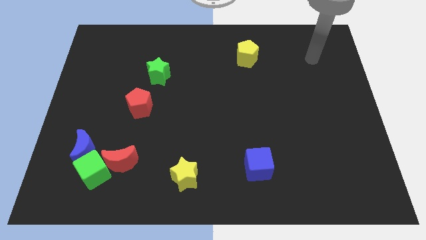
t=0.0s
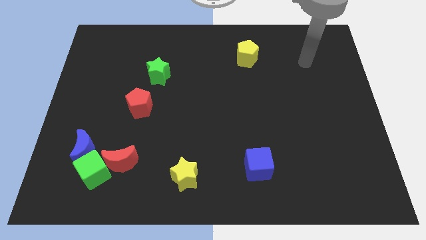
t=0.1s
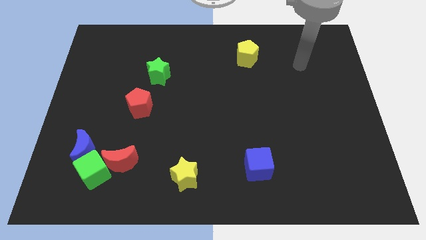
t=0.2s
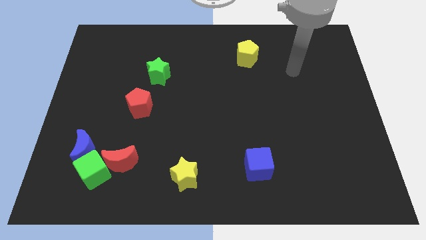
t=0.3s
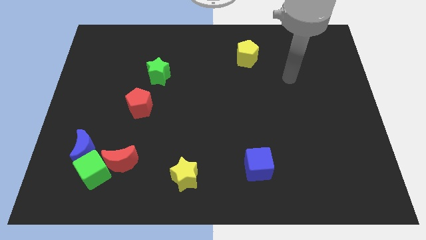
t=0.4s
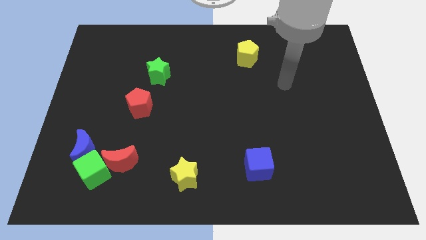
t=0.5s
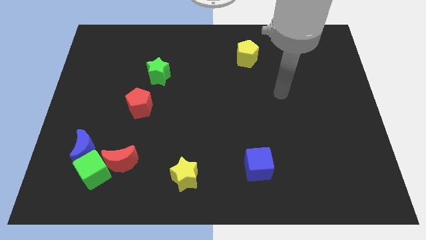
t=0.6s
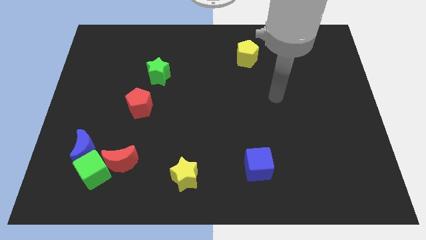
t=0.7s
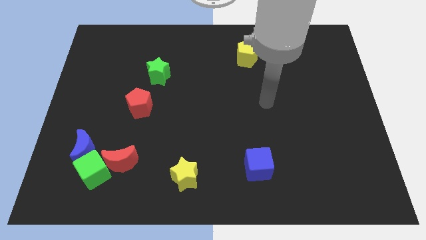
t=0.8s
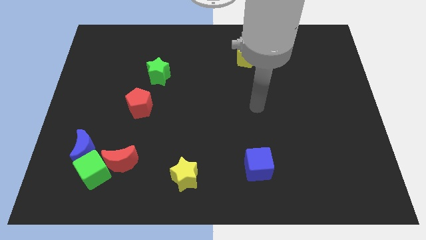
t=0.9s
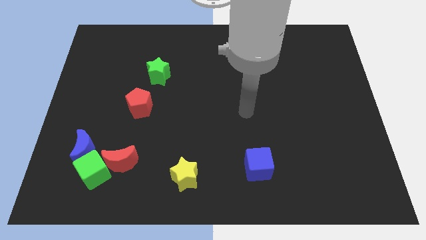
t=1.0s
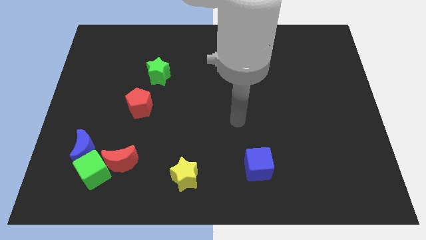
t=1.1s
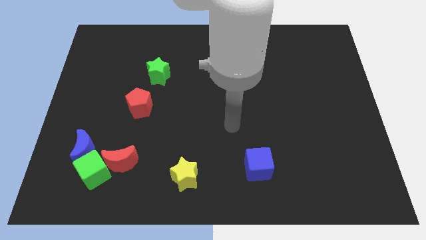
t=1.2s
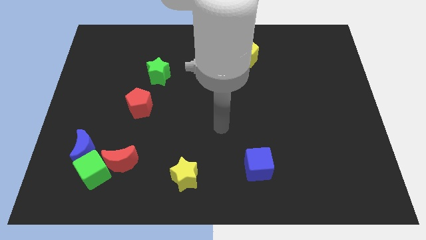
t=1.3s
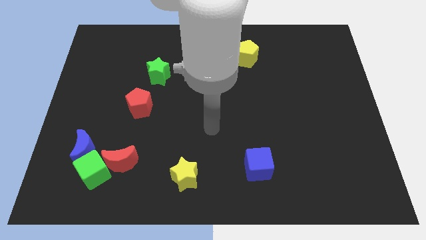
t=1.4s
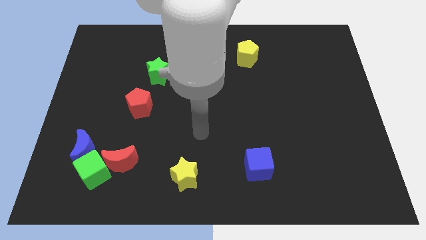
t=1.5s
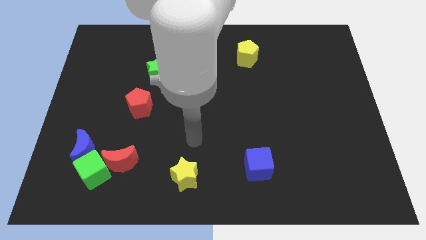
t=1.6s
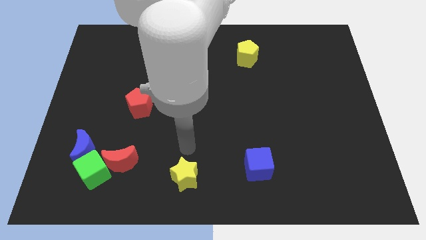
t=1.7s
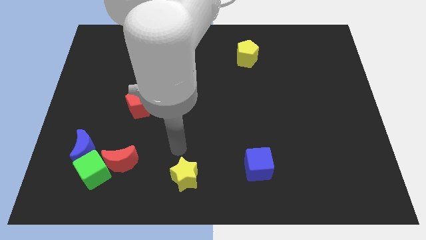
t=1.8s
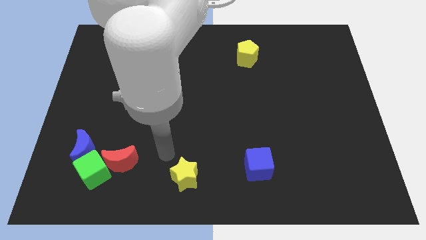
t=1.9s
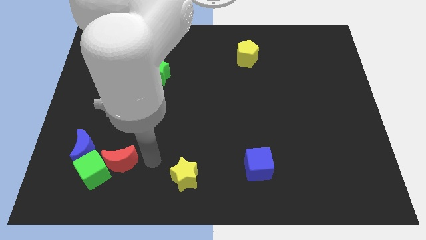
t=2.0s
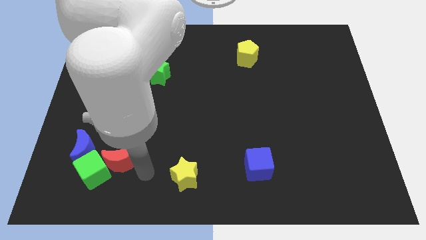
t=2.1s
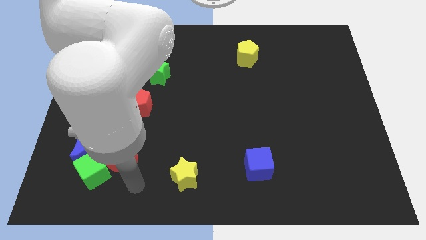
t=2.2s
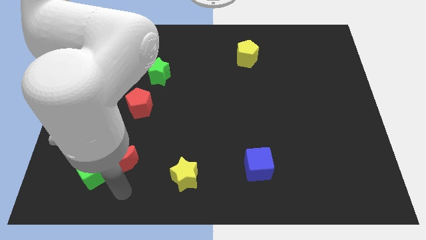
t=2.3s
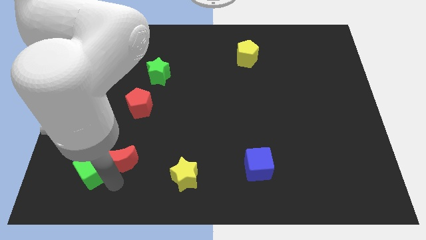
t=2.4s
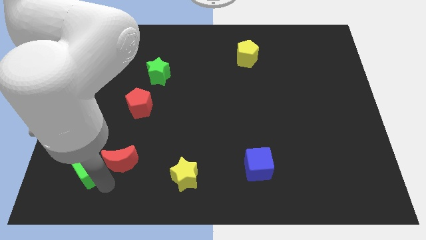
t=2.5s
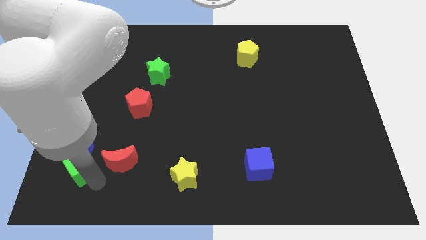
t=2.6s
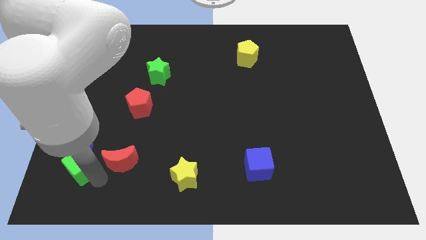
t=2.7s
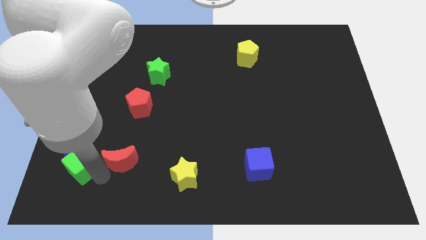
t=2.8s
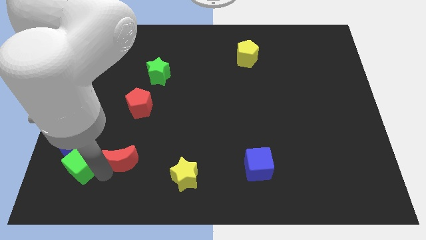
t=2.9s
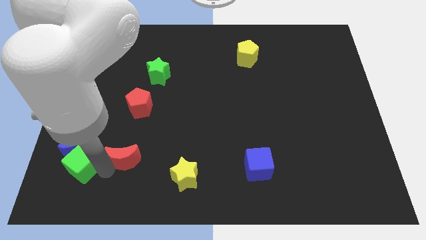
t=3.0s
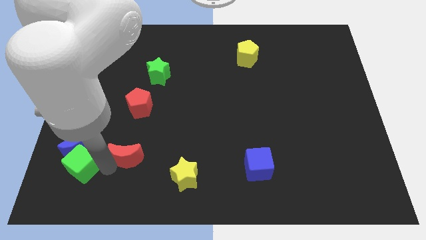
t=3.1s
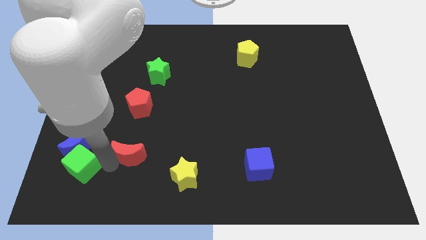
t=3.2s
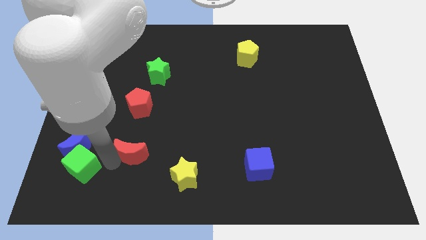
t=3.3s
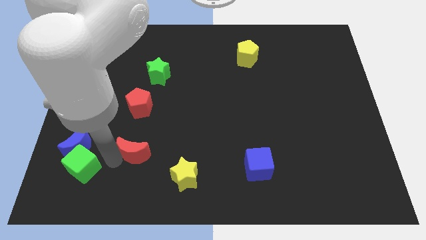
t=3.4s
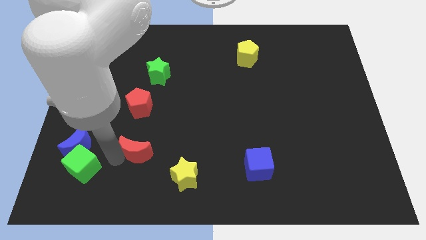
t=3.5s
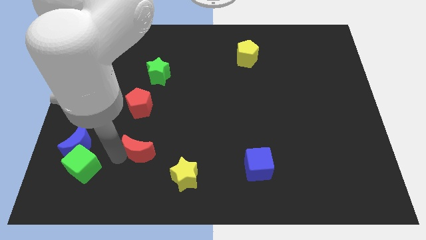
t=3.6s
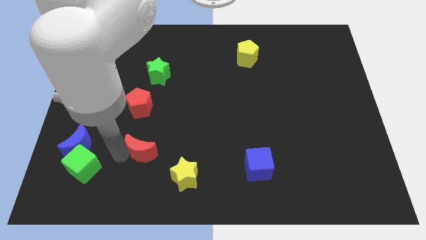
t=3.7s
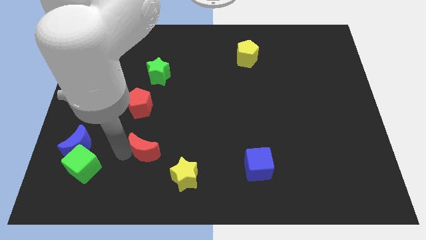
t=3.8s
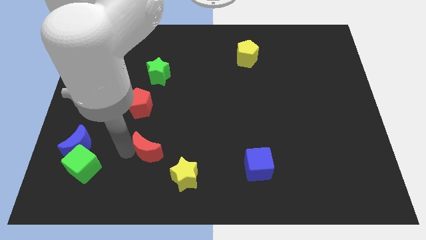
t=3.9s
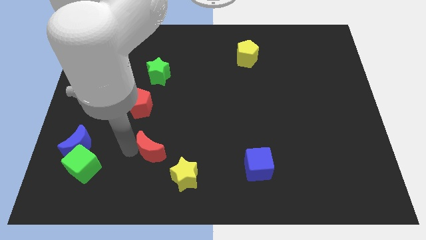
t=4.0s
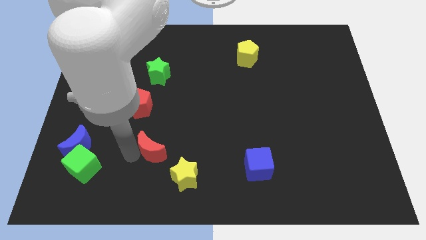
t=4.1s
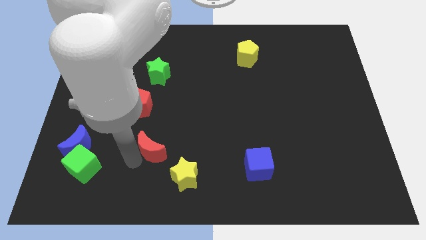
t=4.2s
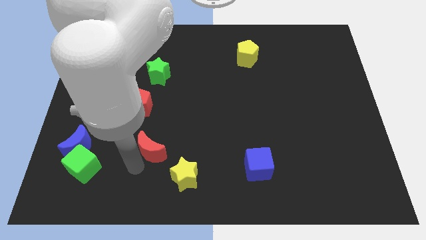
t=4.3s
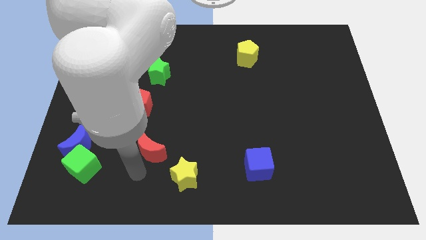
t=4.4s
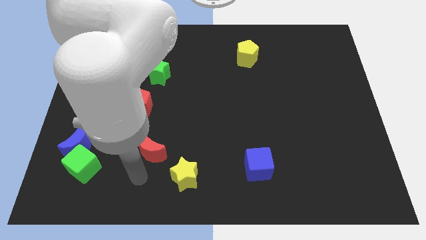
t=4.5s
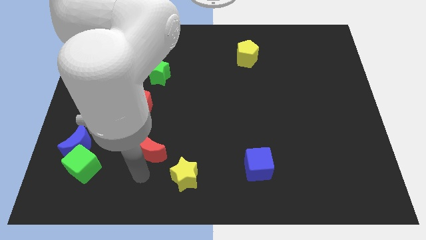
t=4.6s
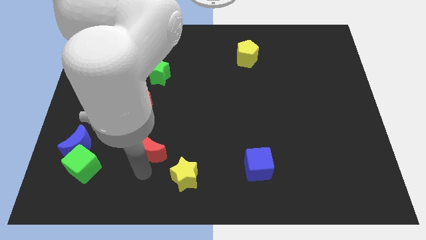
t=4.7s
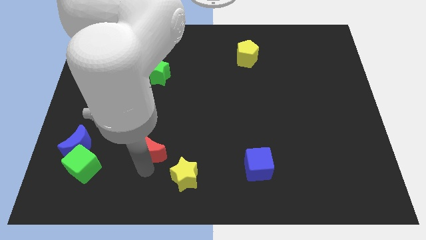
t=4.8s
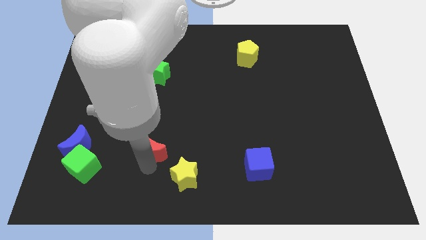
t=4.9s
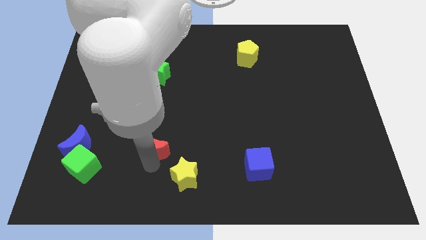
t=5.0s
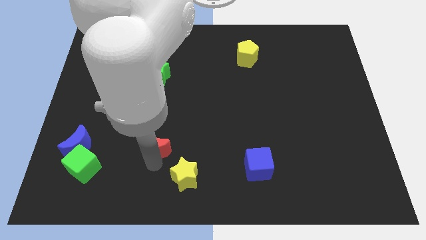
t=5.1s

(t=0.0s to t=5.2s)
move the red moon a little bit up and right

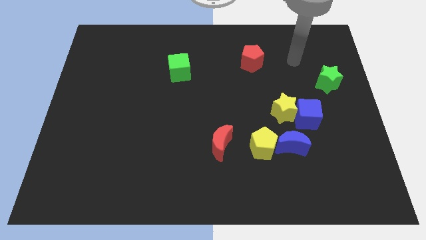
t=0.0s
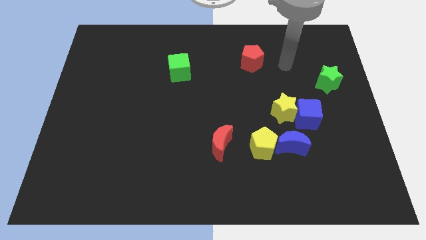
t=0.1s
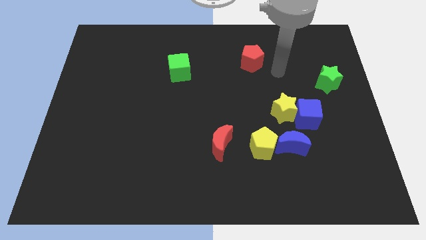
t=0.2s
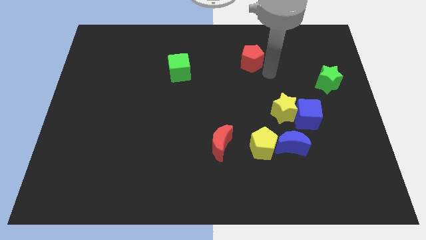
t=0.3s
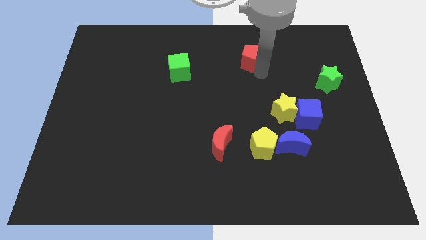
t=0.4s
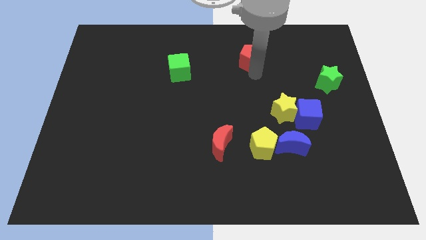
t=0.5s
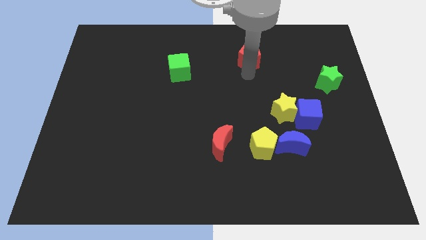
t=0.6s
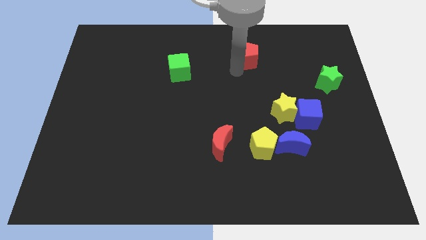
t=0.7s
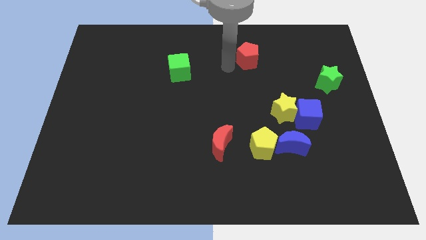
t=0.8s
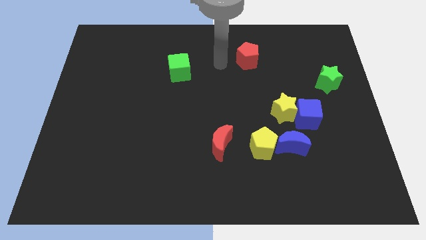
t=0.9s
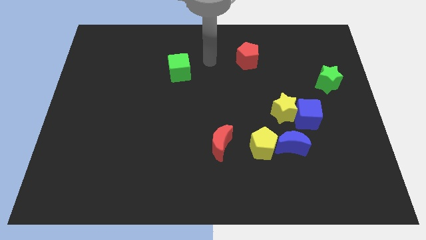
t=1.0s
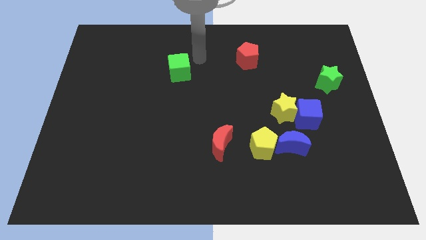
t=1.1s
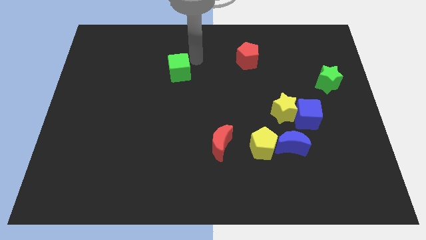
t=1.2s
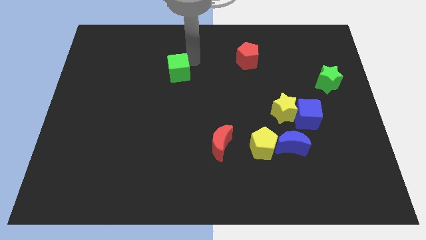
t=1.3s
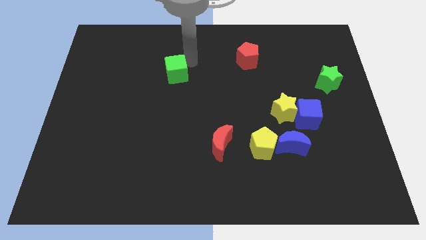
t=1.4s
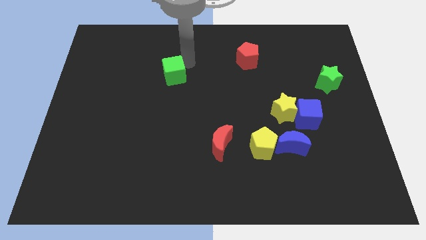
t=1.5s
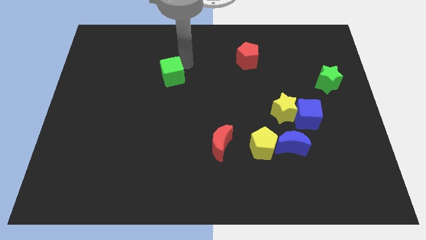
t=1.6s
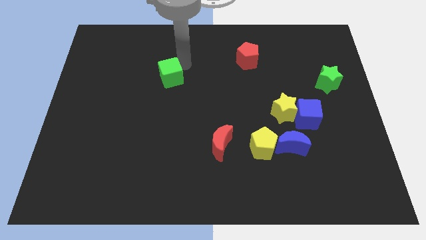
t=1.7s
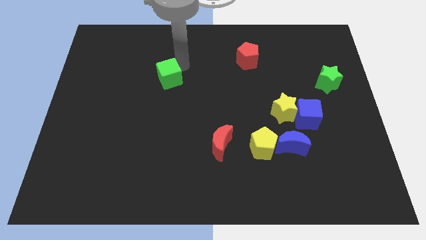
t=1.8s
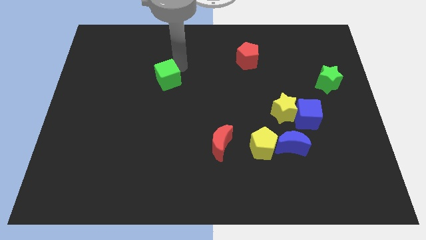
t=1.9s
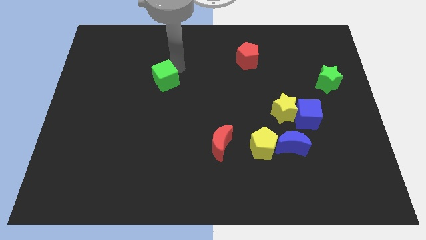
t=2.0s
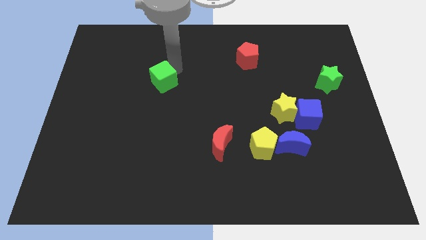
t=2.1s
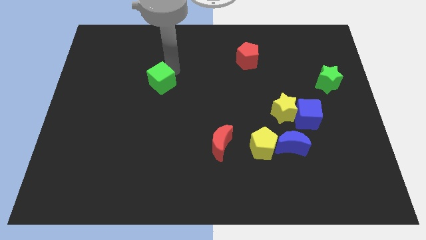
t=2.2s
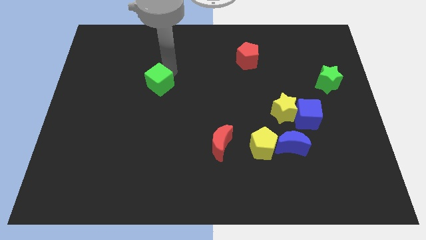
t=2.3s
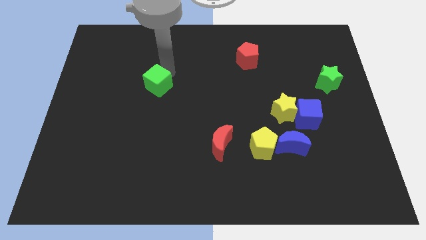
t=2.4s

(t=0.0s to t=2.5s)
slide the green cube a little down and to the left diagonally

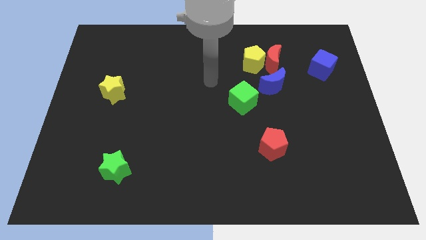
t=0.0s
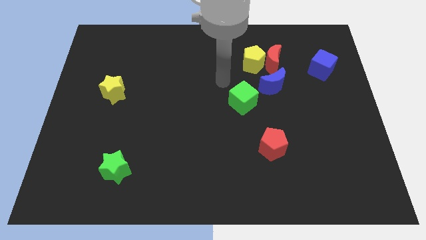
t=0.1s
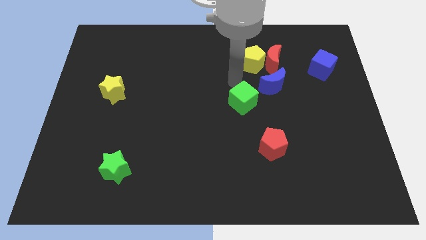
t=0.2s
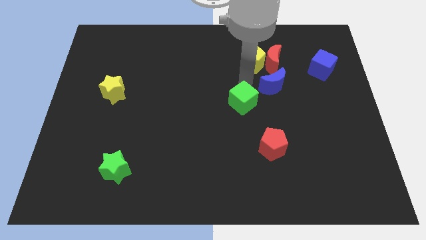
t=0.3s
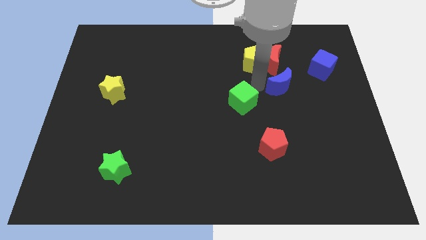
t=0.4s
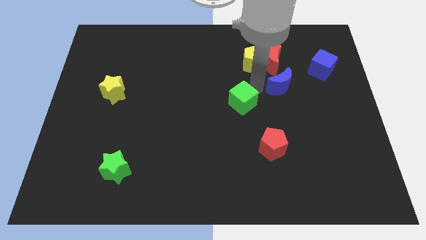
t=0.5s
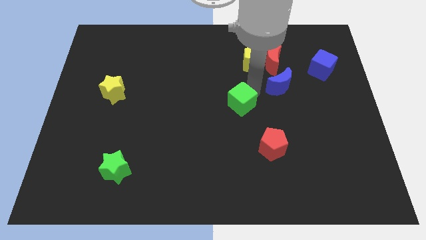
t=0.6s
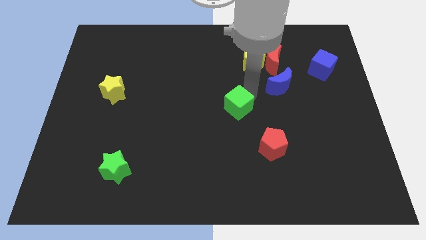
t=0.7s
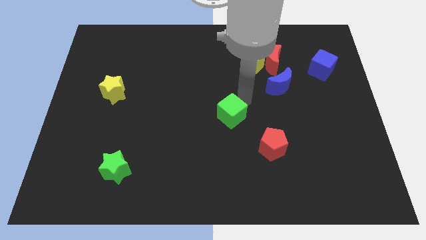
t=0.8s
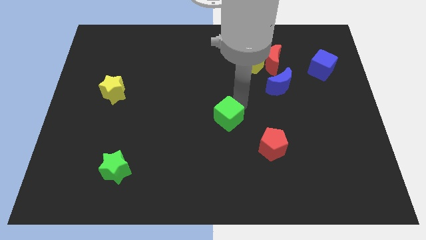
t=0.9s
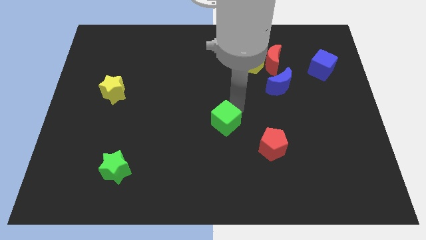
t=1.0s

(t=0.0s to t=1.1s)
slightly push the green cube downwards and then to the left
